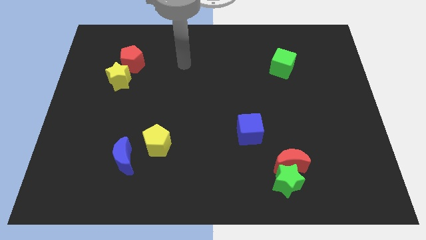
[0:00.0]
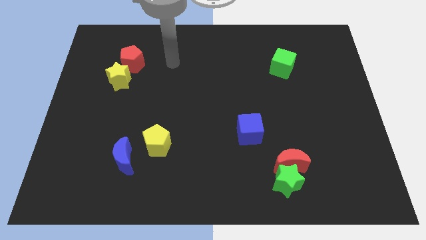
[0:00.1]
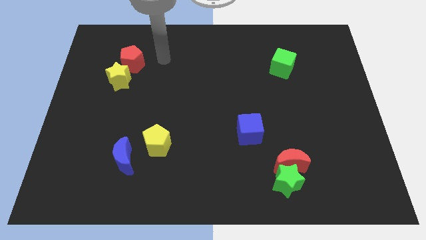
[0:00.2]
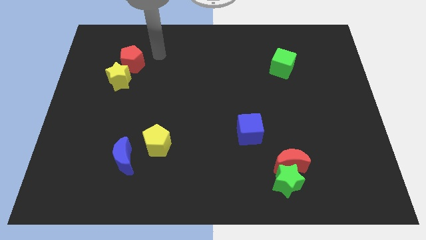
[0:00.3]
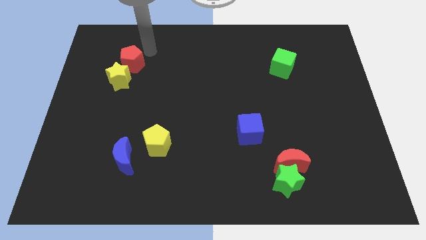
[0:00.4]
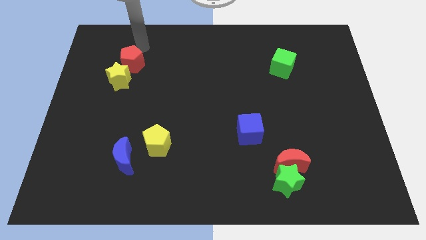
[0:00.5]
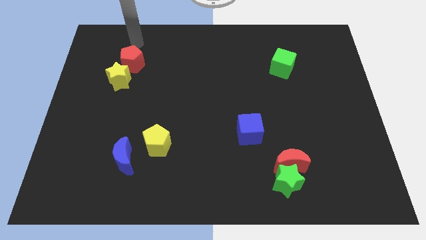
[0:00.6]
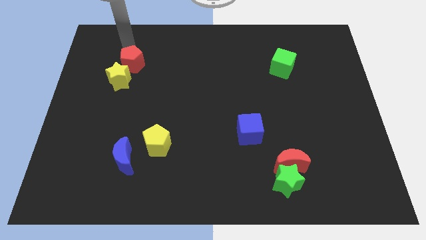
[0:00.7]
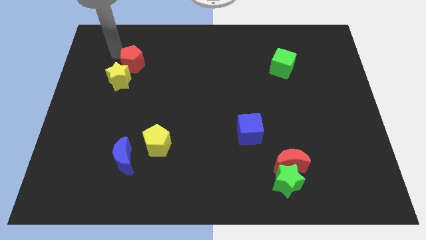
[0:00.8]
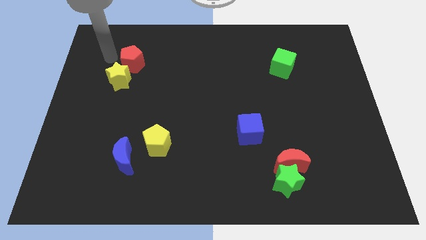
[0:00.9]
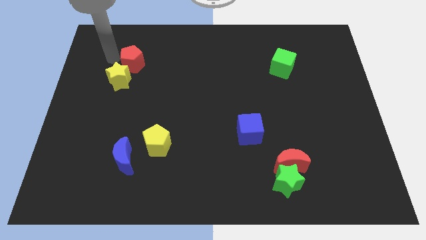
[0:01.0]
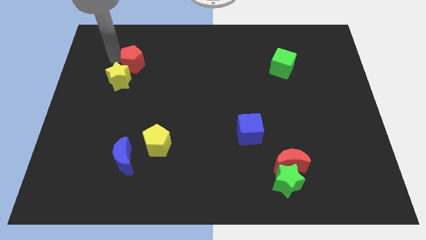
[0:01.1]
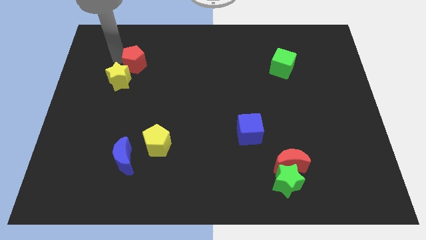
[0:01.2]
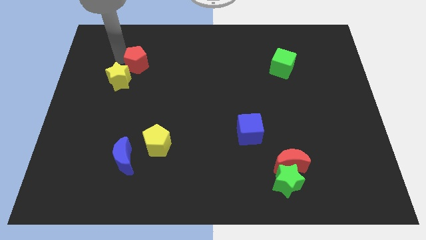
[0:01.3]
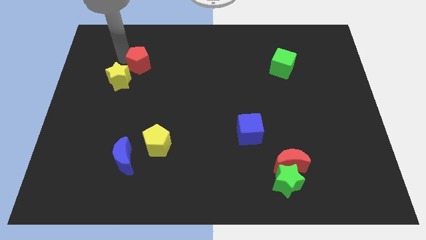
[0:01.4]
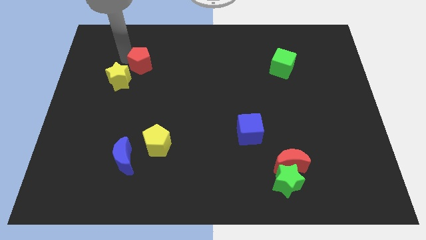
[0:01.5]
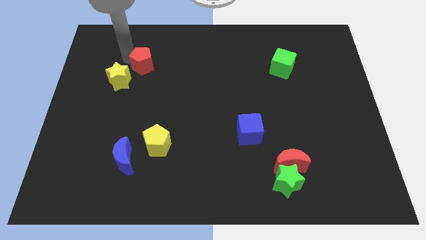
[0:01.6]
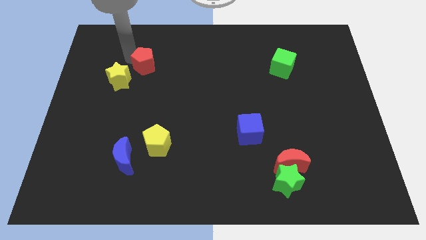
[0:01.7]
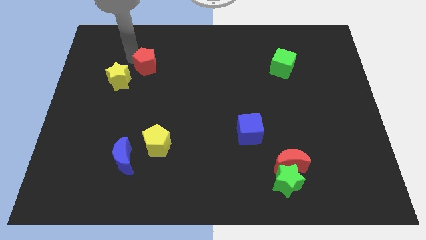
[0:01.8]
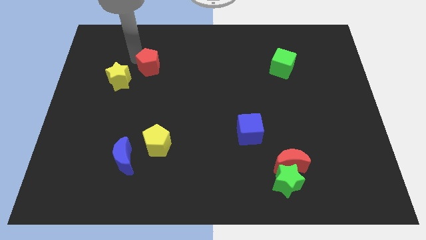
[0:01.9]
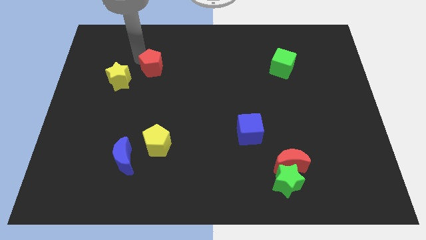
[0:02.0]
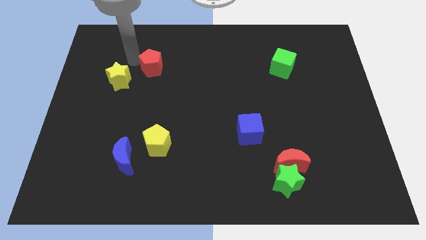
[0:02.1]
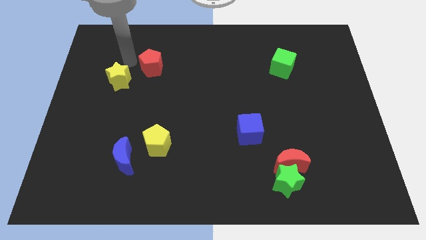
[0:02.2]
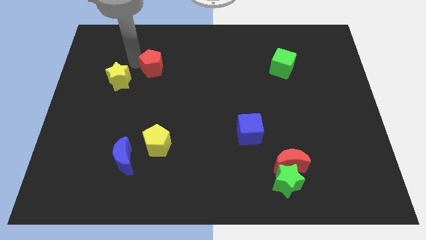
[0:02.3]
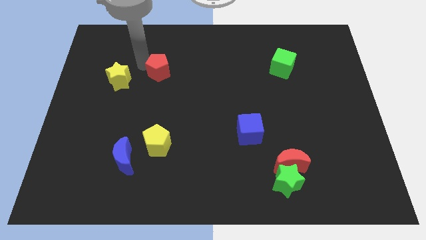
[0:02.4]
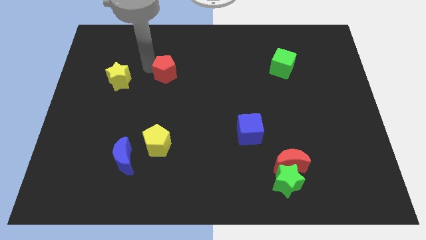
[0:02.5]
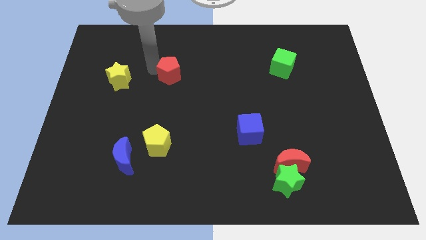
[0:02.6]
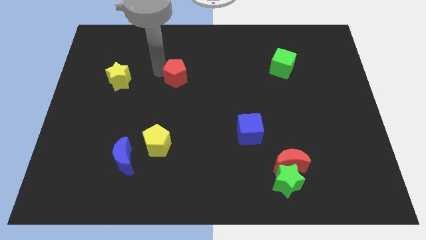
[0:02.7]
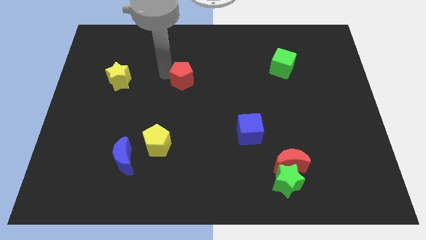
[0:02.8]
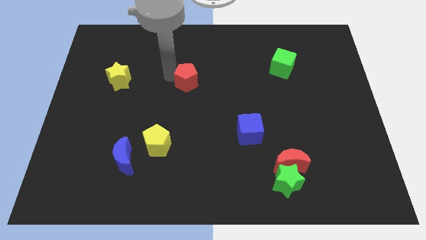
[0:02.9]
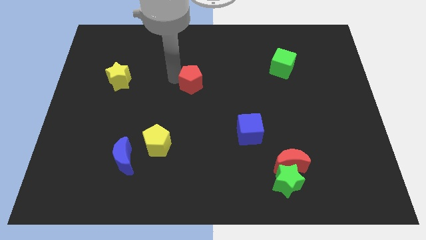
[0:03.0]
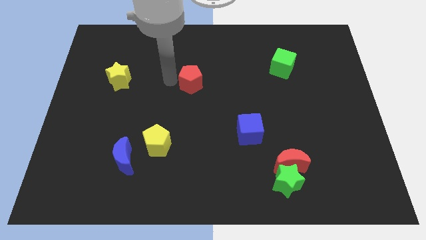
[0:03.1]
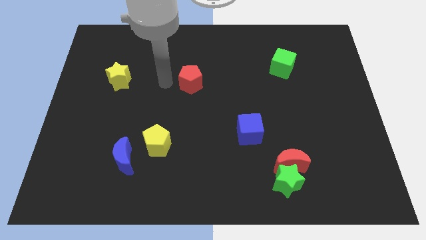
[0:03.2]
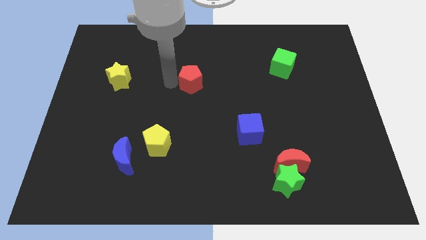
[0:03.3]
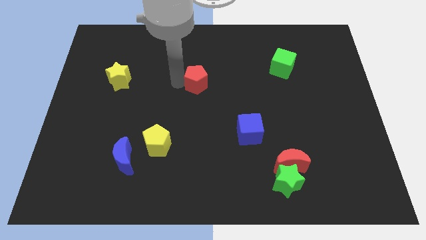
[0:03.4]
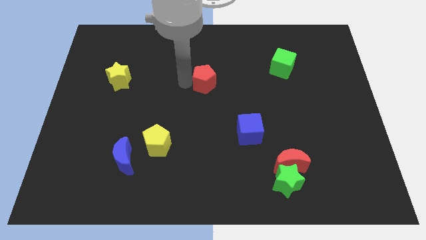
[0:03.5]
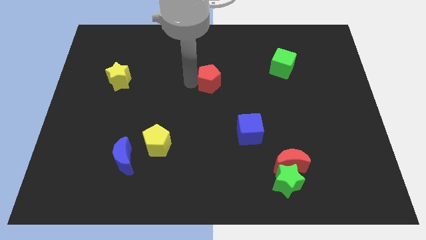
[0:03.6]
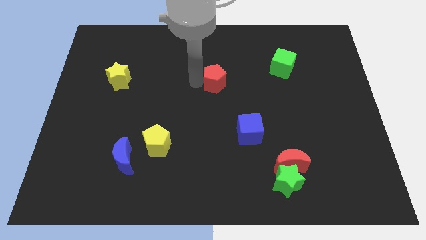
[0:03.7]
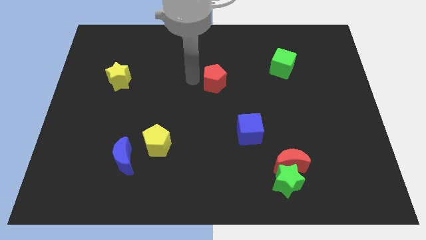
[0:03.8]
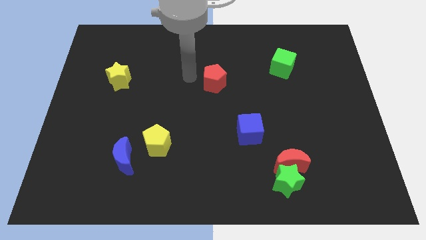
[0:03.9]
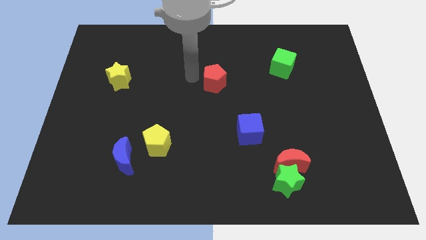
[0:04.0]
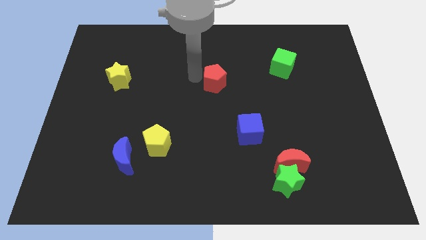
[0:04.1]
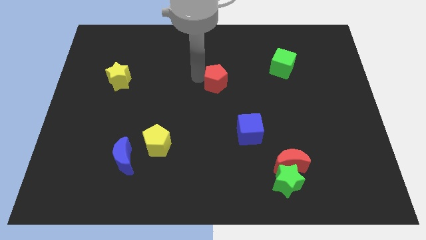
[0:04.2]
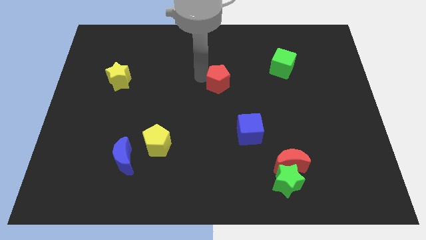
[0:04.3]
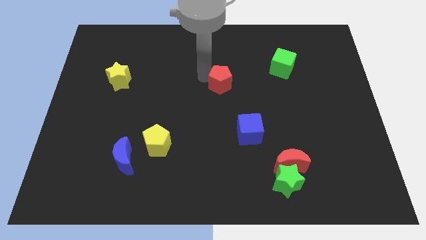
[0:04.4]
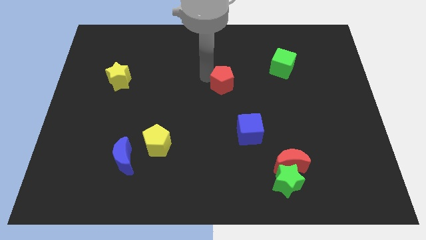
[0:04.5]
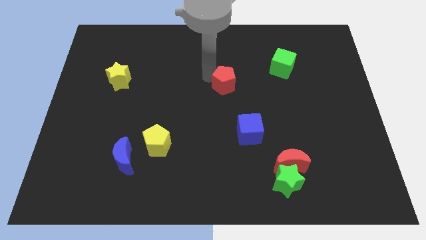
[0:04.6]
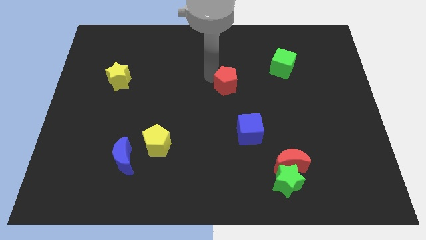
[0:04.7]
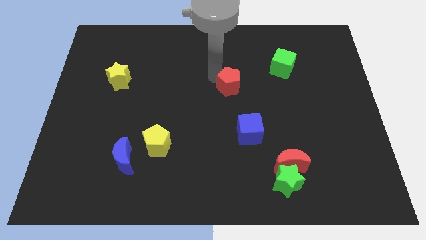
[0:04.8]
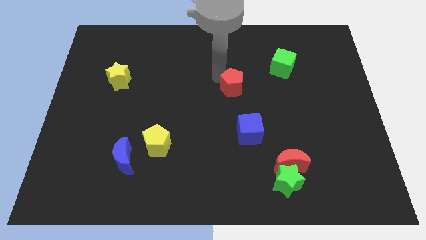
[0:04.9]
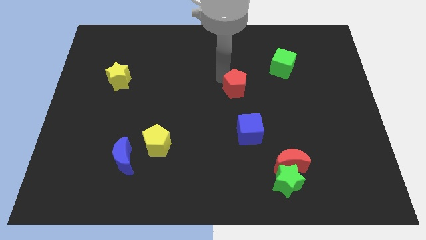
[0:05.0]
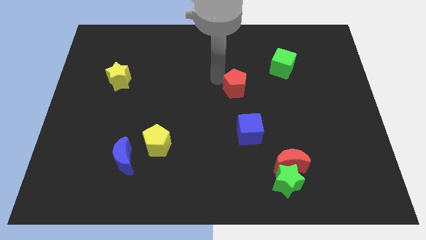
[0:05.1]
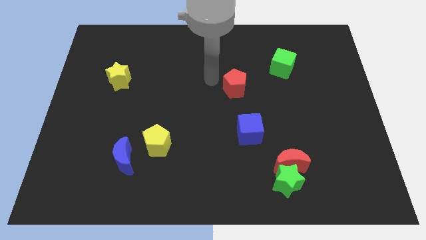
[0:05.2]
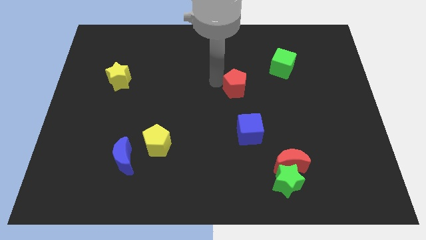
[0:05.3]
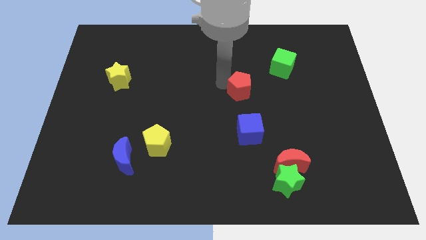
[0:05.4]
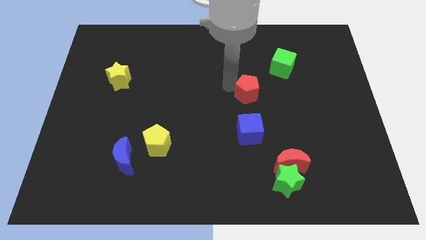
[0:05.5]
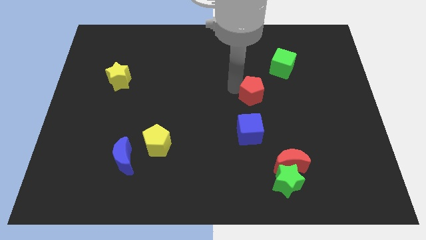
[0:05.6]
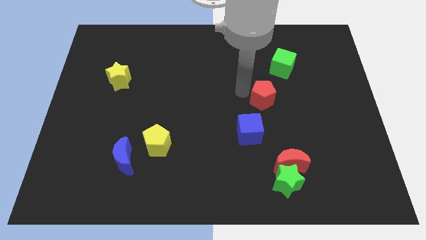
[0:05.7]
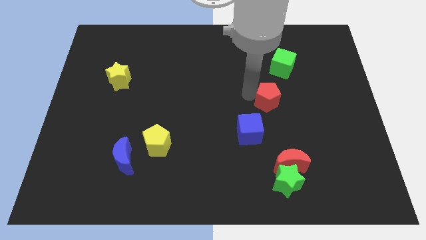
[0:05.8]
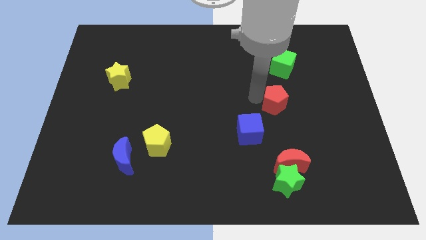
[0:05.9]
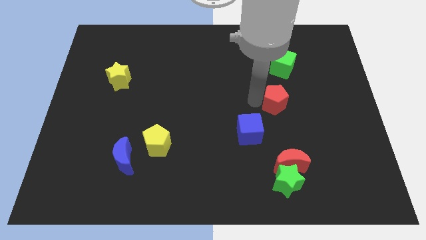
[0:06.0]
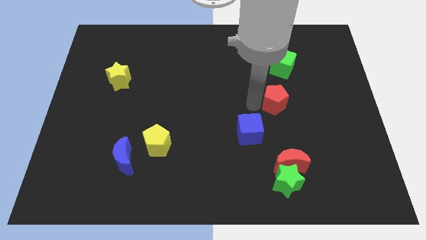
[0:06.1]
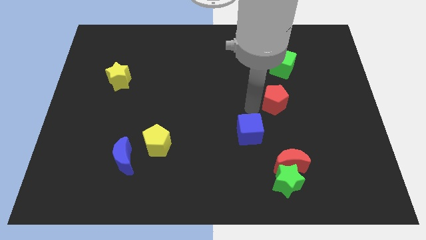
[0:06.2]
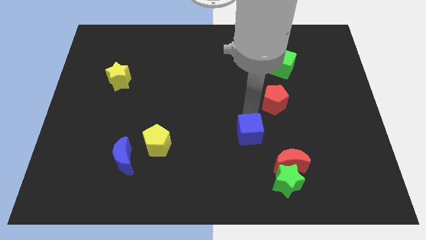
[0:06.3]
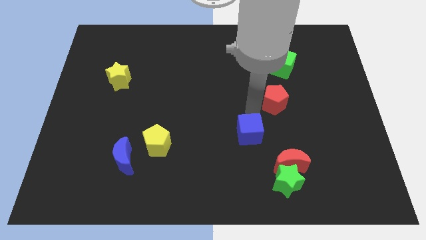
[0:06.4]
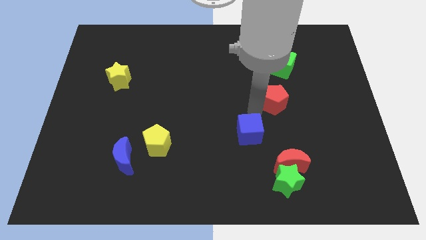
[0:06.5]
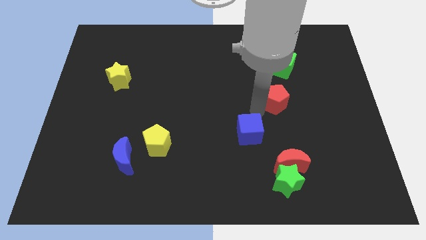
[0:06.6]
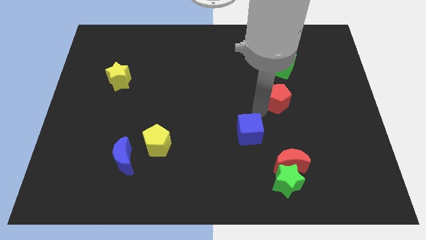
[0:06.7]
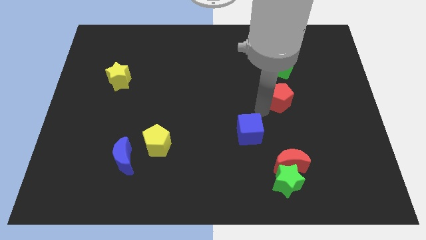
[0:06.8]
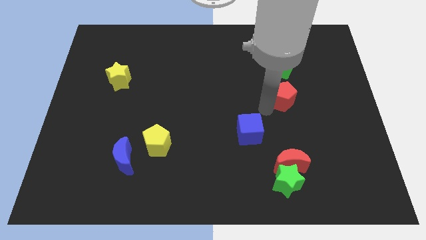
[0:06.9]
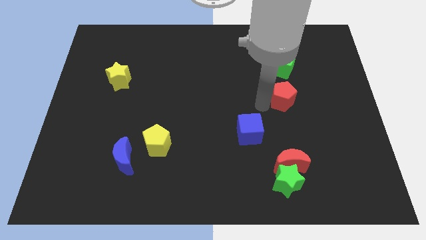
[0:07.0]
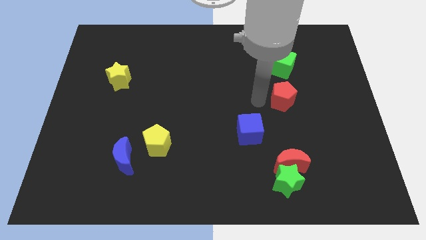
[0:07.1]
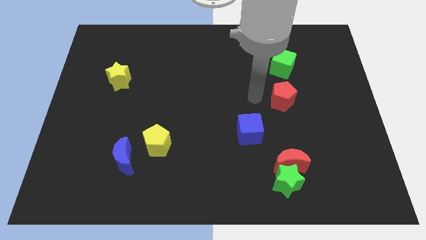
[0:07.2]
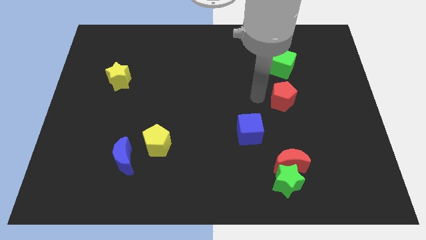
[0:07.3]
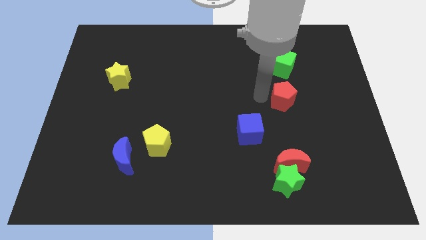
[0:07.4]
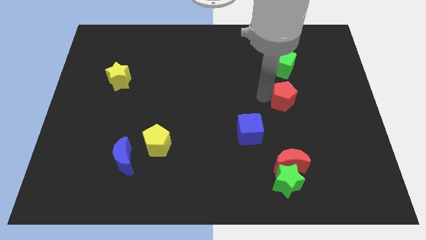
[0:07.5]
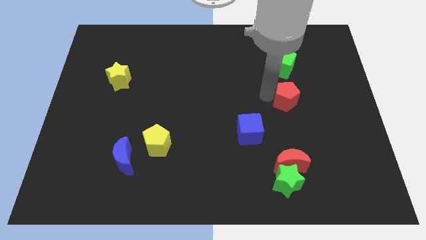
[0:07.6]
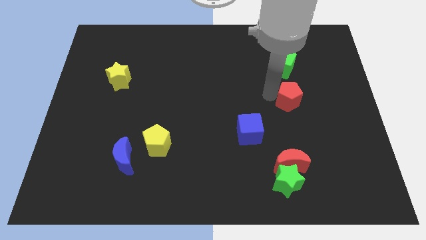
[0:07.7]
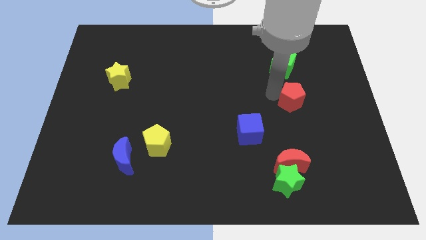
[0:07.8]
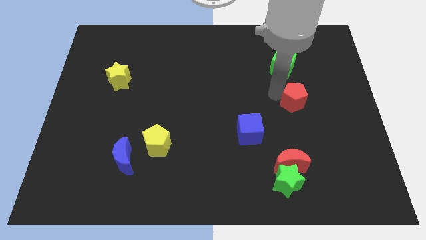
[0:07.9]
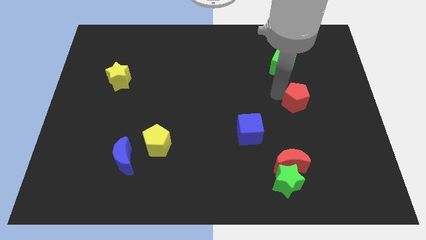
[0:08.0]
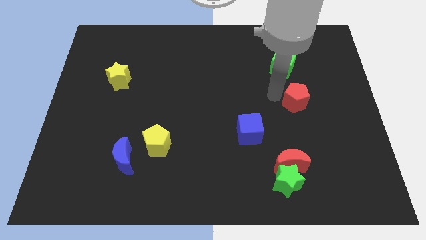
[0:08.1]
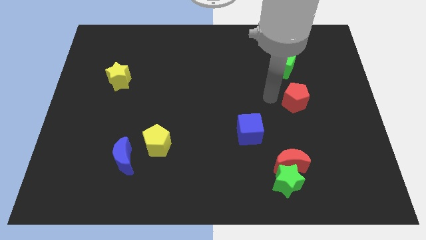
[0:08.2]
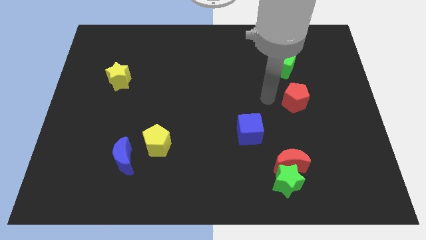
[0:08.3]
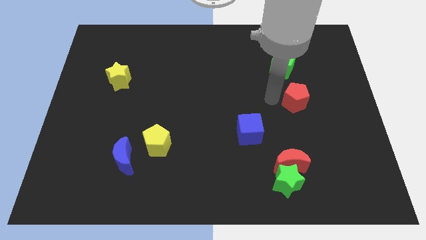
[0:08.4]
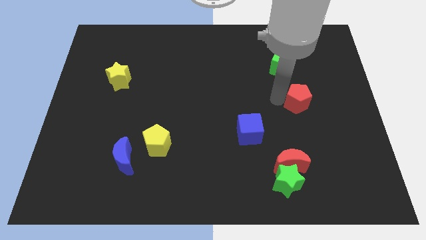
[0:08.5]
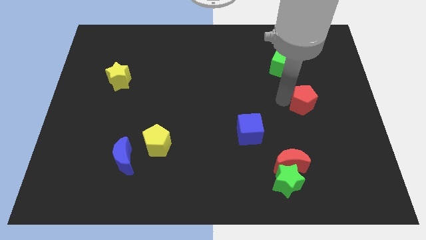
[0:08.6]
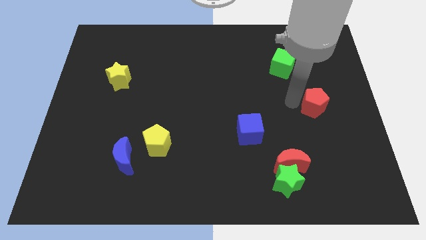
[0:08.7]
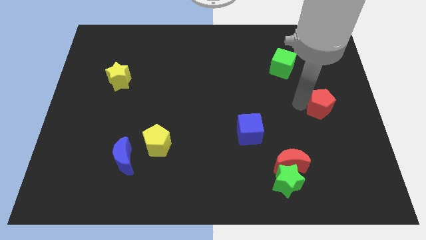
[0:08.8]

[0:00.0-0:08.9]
slide the red pentagon to the right side
